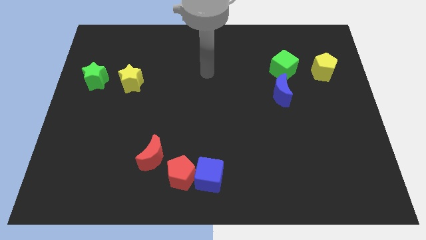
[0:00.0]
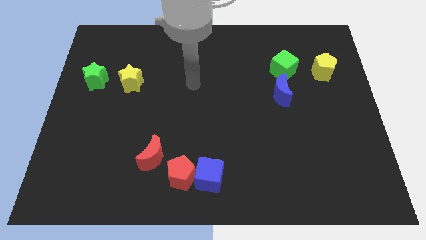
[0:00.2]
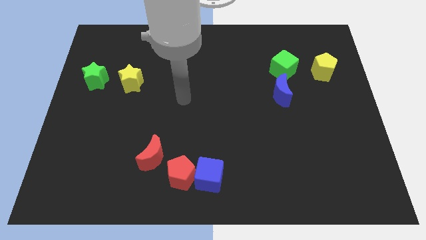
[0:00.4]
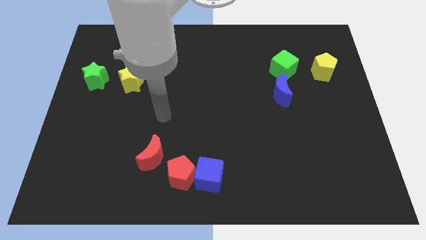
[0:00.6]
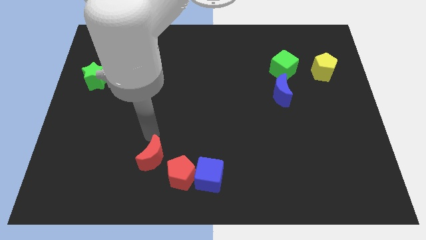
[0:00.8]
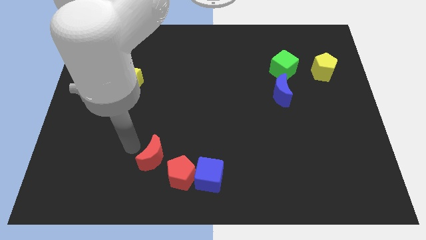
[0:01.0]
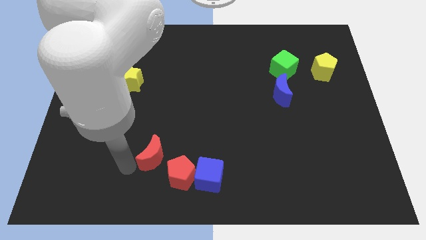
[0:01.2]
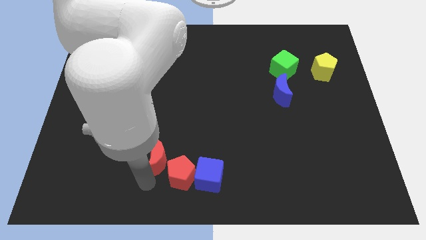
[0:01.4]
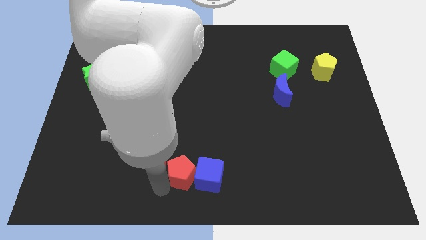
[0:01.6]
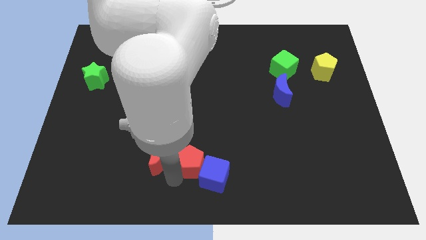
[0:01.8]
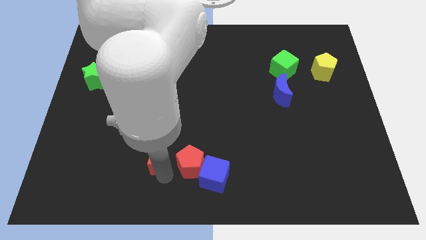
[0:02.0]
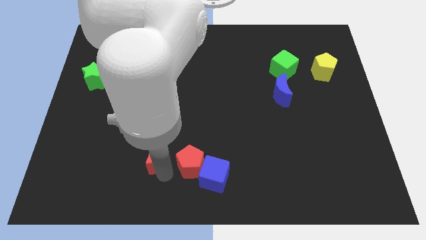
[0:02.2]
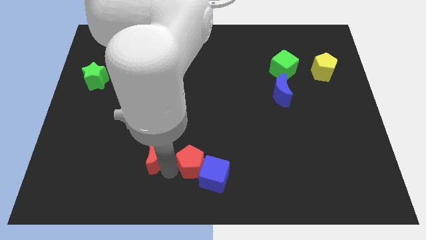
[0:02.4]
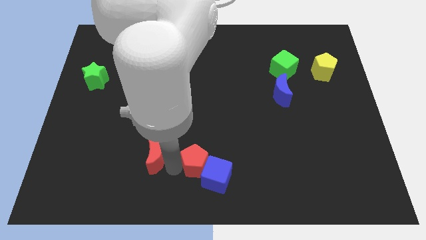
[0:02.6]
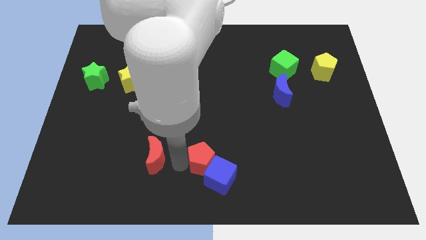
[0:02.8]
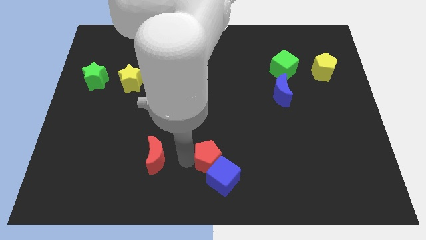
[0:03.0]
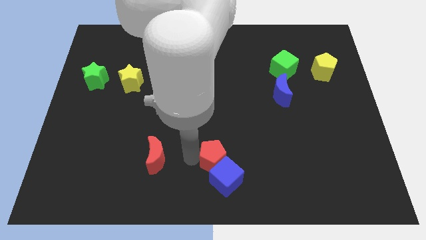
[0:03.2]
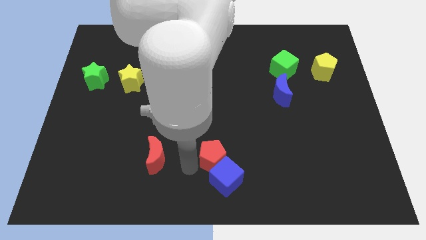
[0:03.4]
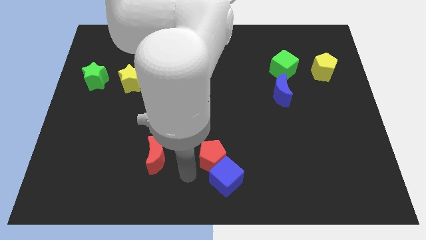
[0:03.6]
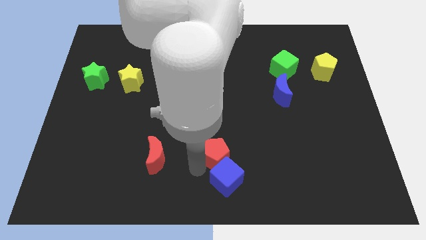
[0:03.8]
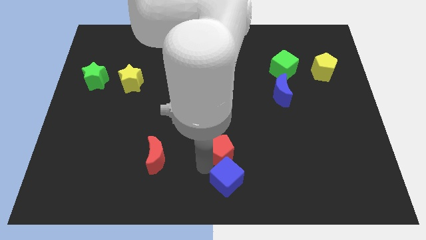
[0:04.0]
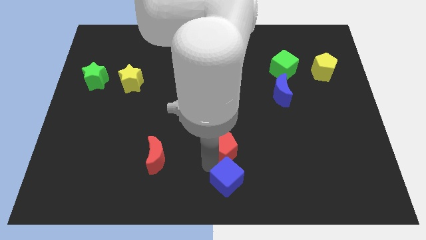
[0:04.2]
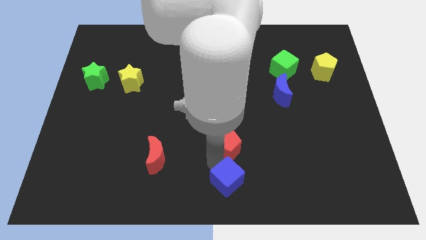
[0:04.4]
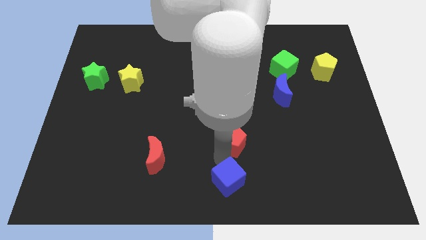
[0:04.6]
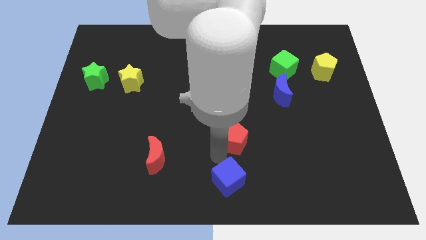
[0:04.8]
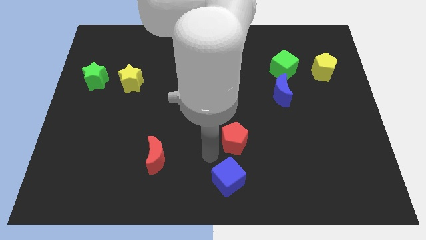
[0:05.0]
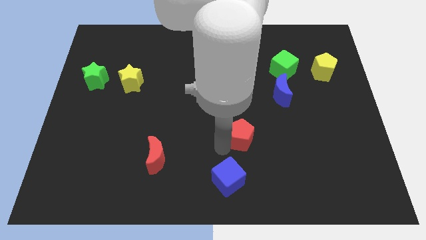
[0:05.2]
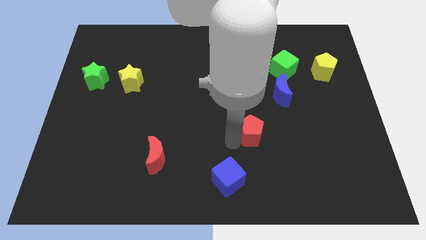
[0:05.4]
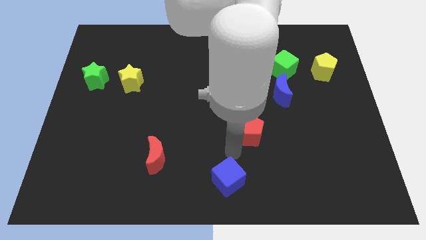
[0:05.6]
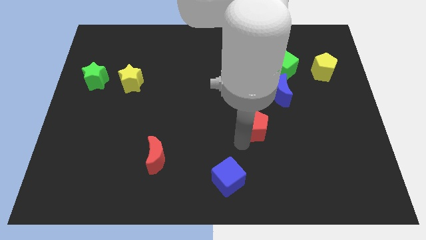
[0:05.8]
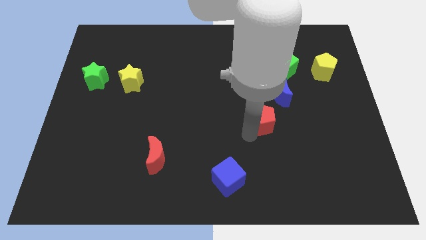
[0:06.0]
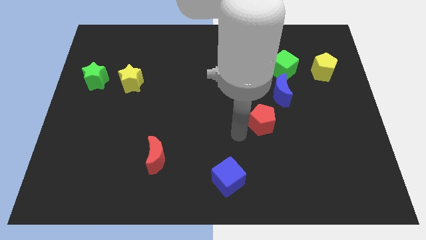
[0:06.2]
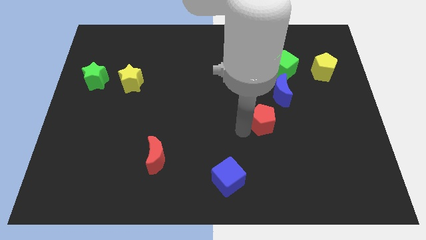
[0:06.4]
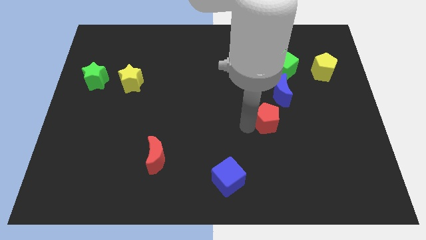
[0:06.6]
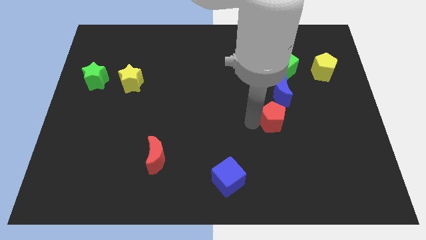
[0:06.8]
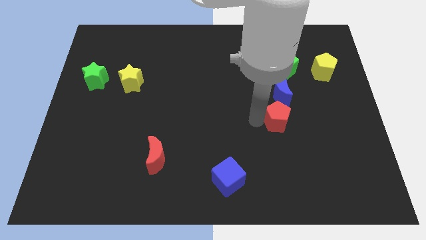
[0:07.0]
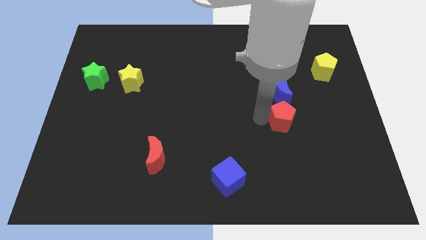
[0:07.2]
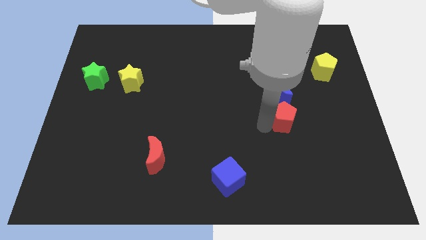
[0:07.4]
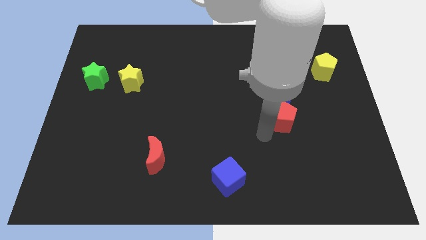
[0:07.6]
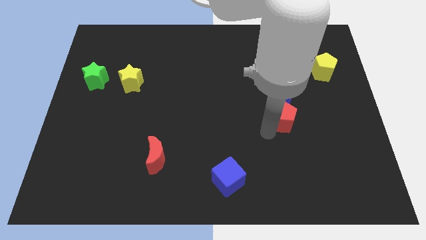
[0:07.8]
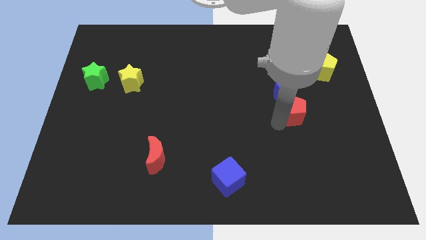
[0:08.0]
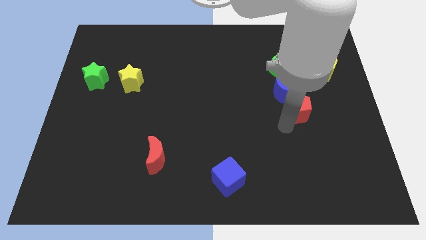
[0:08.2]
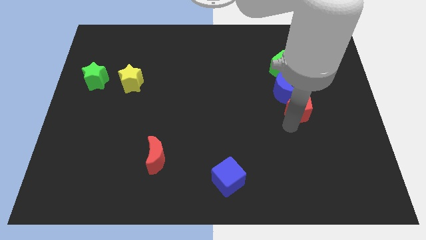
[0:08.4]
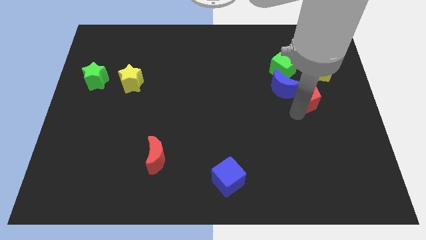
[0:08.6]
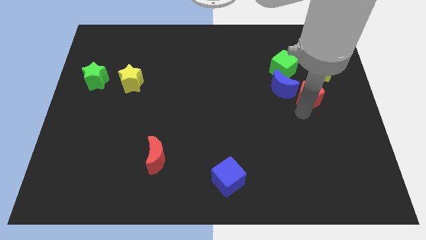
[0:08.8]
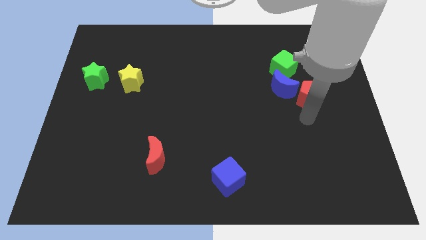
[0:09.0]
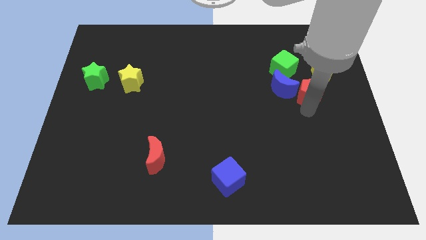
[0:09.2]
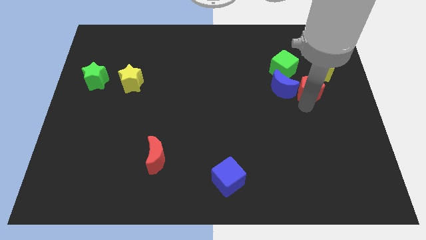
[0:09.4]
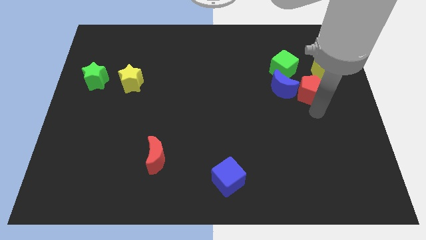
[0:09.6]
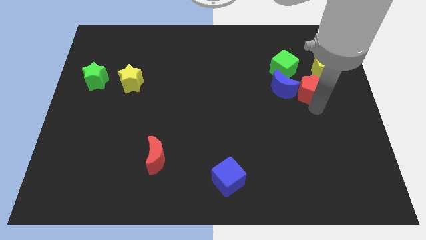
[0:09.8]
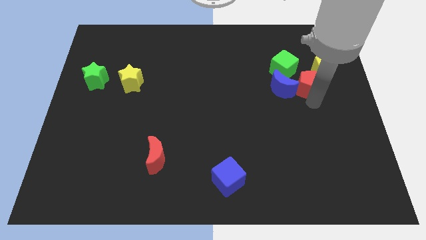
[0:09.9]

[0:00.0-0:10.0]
put the red pentagon to the top right side of the blue moon

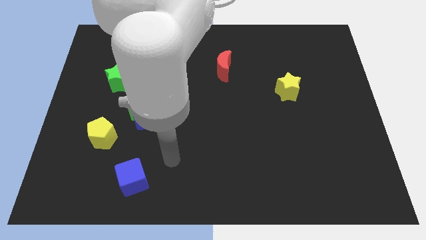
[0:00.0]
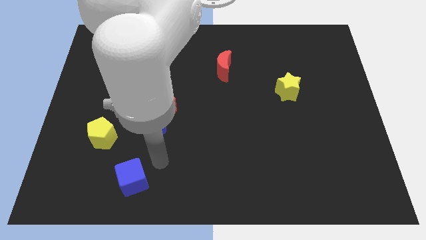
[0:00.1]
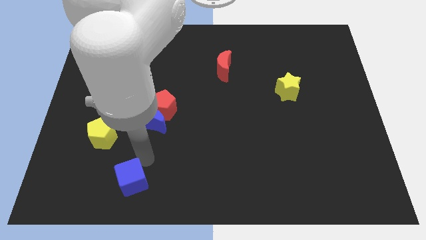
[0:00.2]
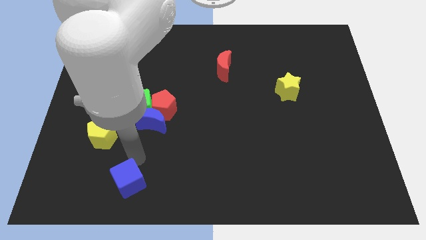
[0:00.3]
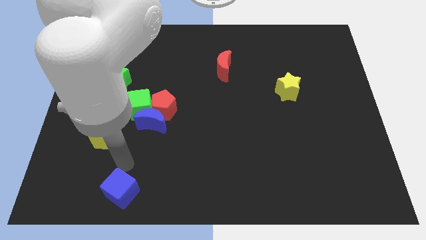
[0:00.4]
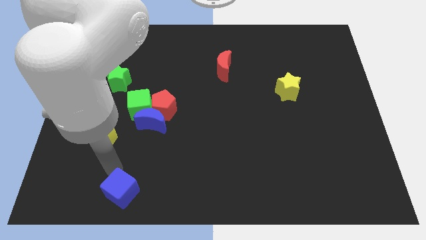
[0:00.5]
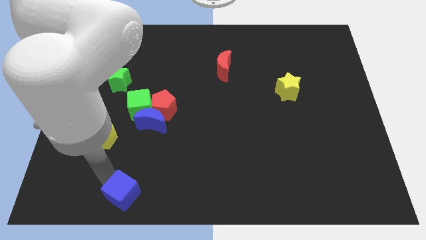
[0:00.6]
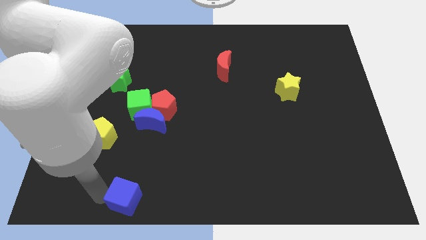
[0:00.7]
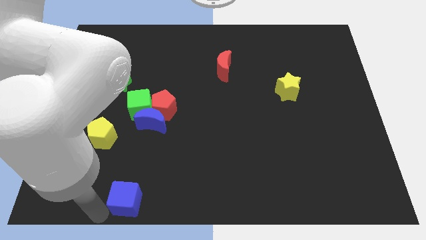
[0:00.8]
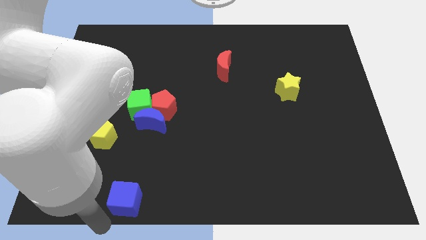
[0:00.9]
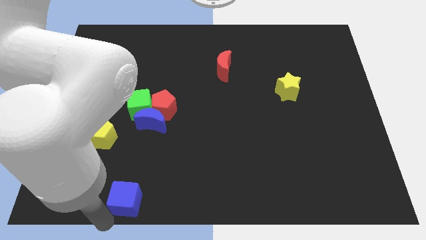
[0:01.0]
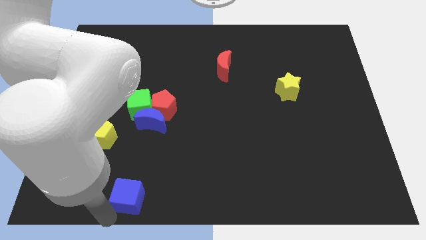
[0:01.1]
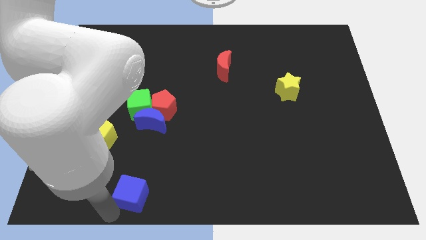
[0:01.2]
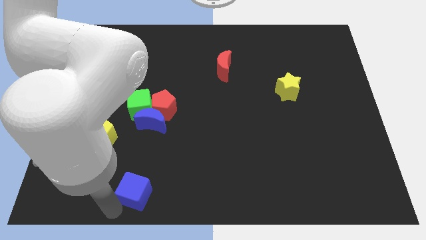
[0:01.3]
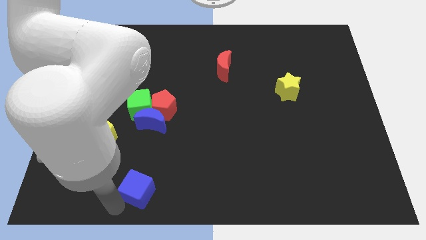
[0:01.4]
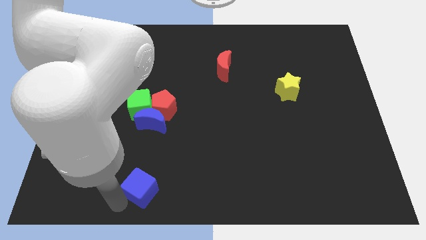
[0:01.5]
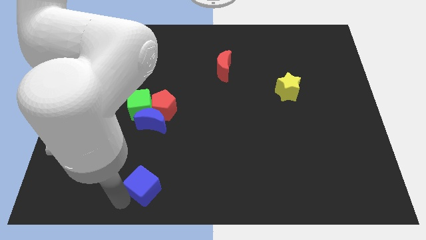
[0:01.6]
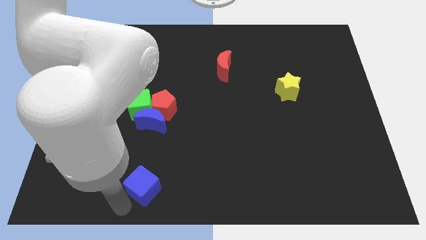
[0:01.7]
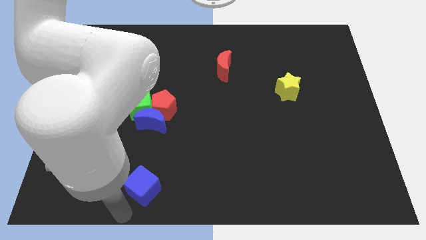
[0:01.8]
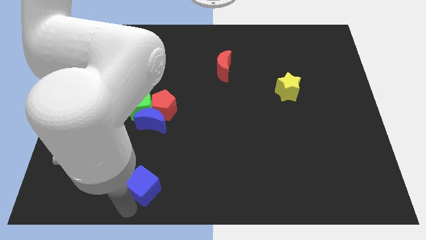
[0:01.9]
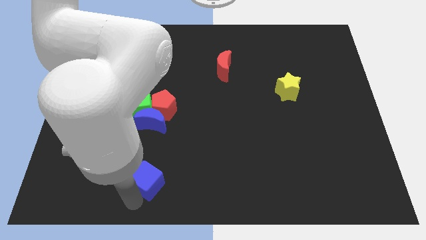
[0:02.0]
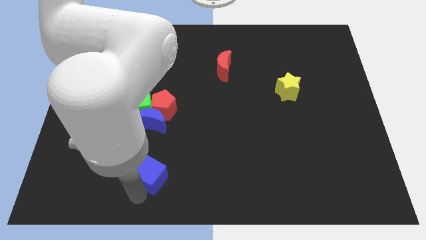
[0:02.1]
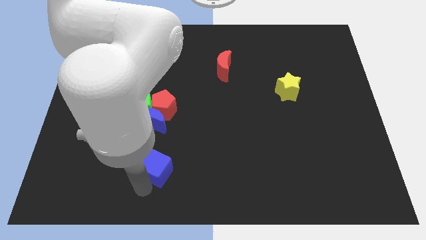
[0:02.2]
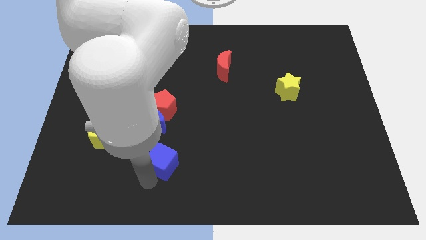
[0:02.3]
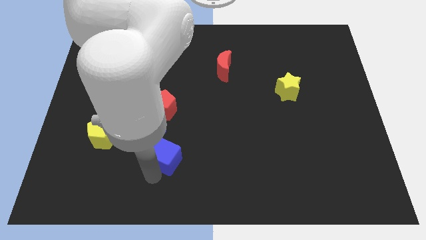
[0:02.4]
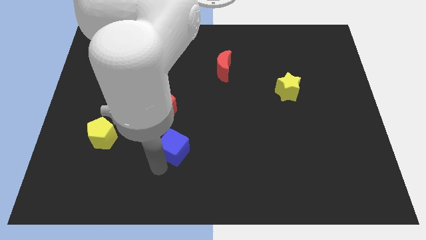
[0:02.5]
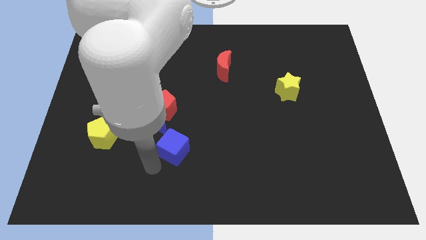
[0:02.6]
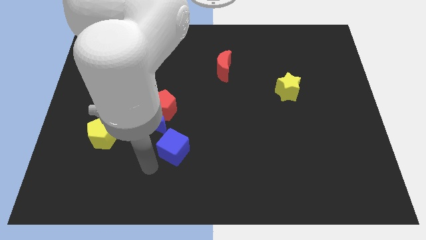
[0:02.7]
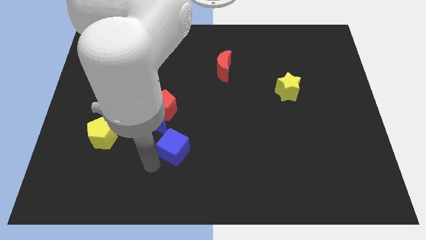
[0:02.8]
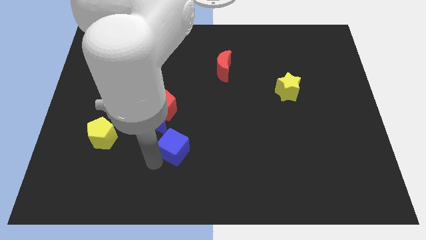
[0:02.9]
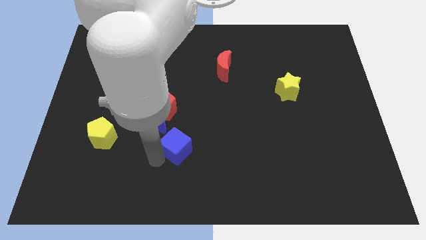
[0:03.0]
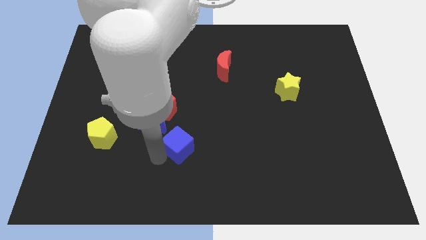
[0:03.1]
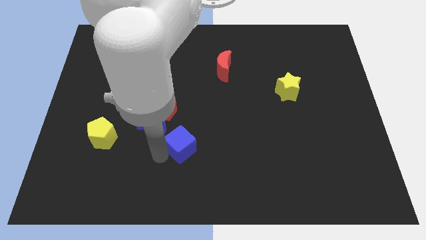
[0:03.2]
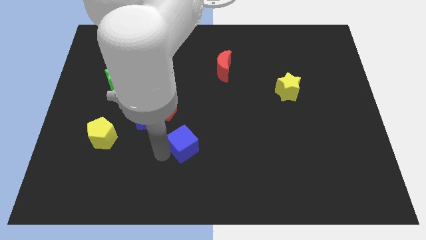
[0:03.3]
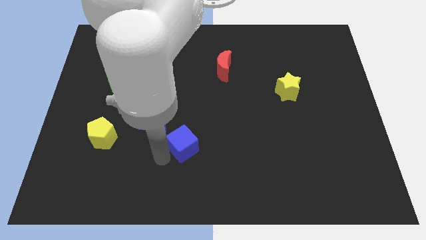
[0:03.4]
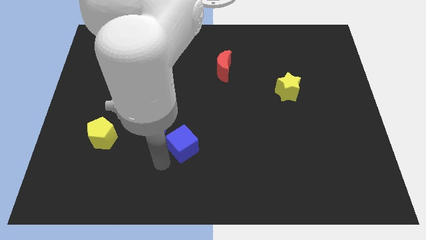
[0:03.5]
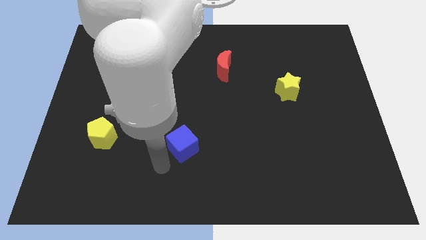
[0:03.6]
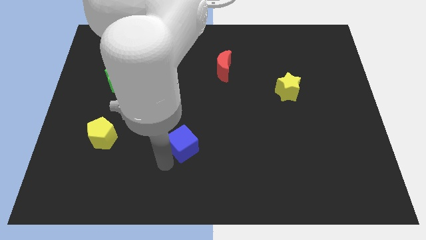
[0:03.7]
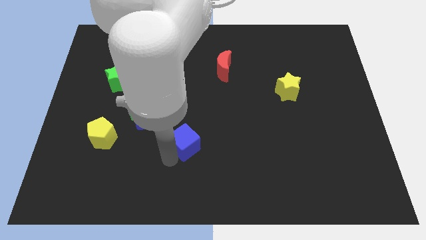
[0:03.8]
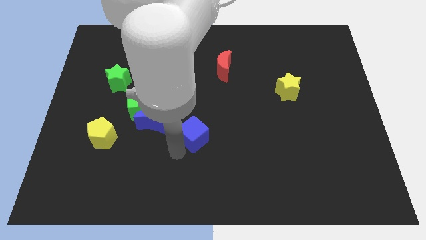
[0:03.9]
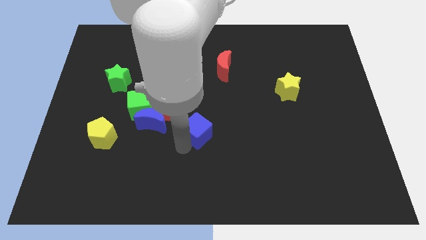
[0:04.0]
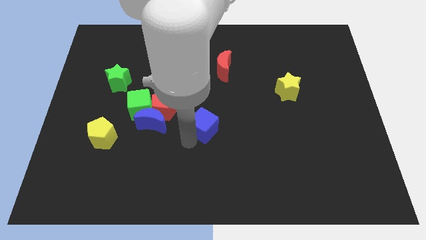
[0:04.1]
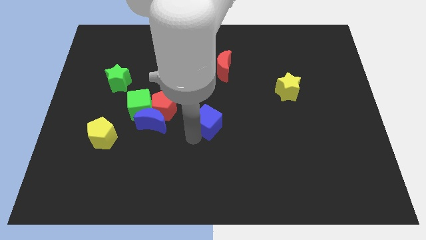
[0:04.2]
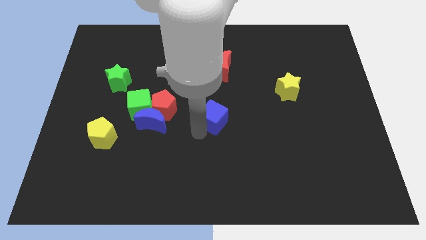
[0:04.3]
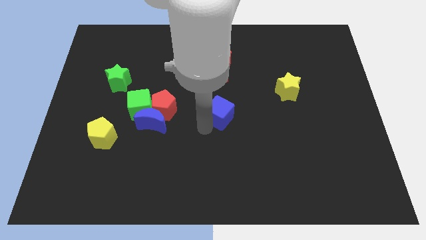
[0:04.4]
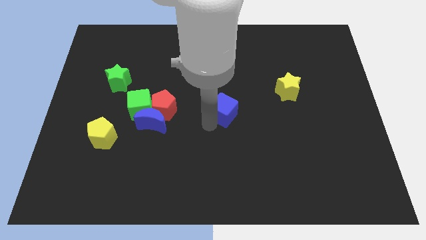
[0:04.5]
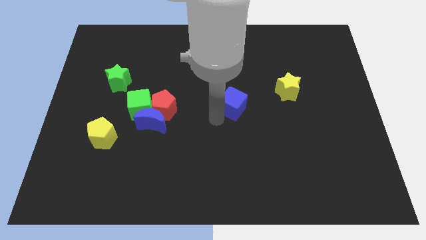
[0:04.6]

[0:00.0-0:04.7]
put the blue cube to the left side of the yellow star
